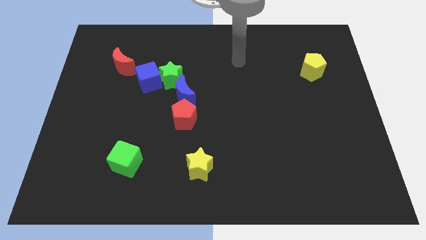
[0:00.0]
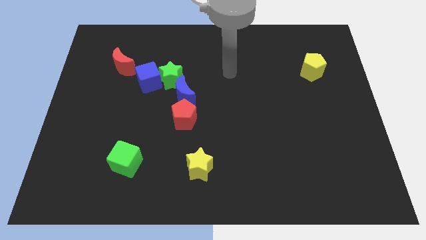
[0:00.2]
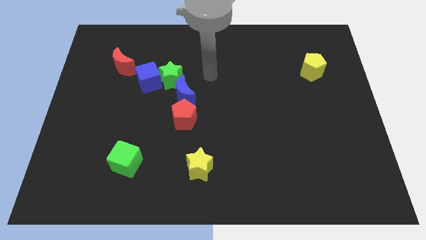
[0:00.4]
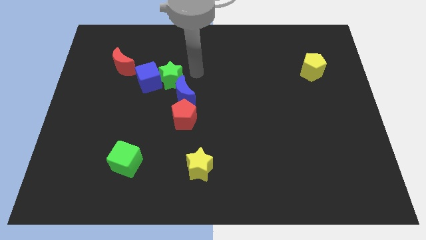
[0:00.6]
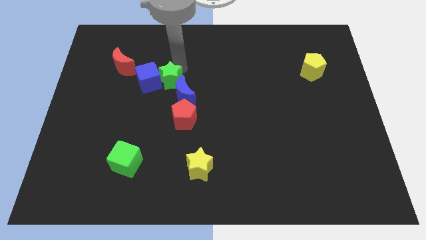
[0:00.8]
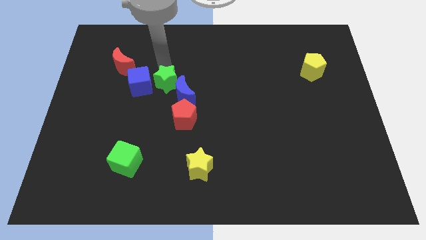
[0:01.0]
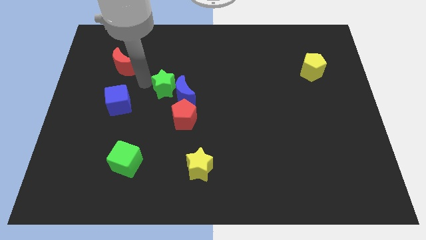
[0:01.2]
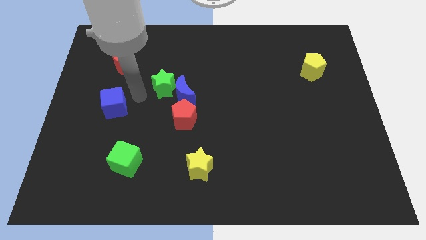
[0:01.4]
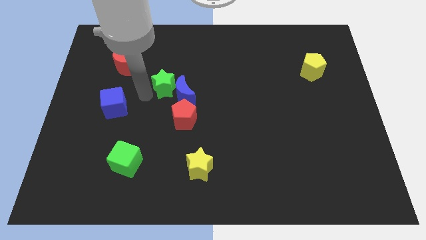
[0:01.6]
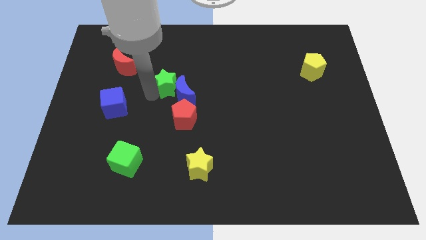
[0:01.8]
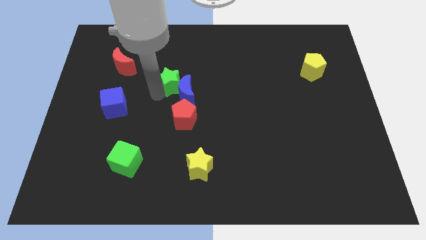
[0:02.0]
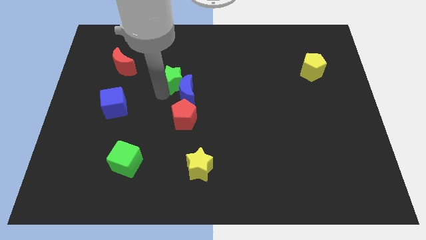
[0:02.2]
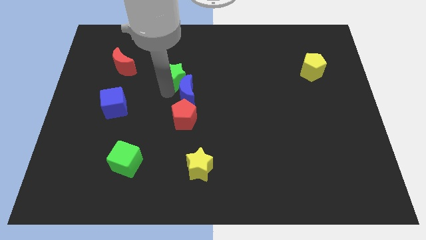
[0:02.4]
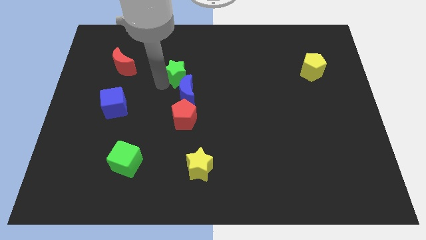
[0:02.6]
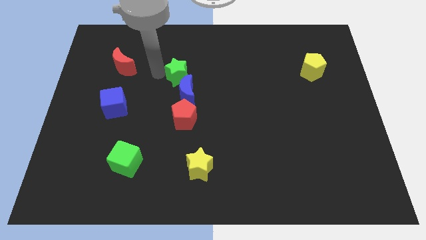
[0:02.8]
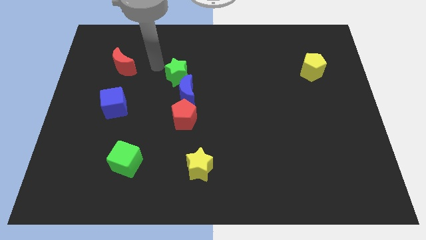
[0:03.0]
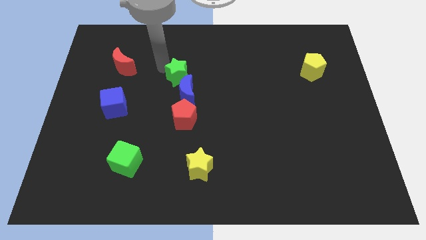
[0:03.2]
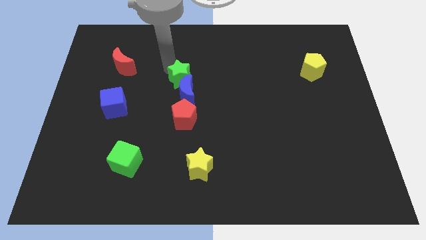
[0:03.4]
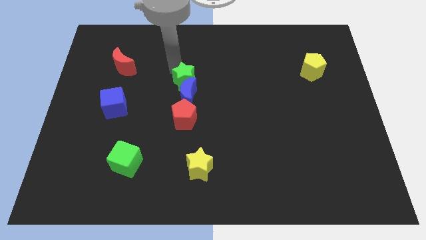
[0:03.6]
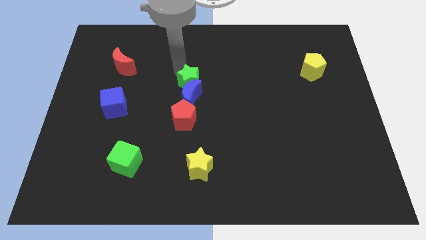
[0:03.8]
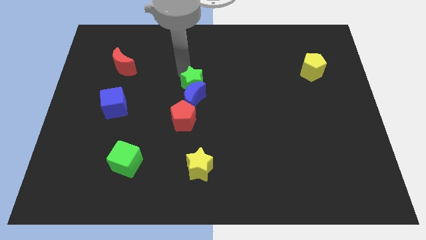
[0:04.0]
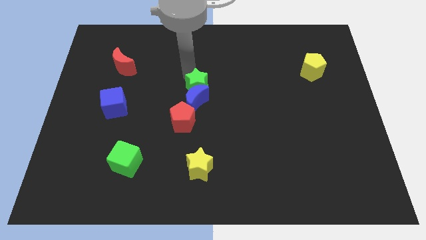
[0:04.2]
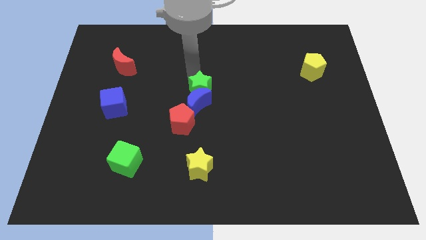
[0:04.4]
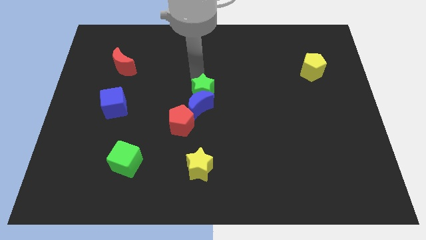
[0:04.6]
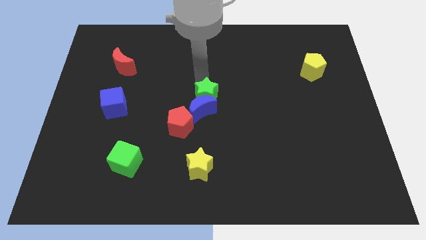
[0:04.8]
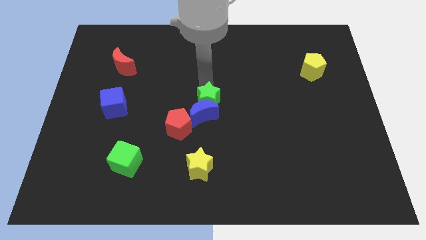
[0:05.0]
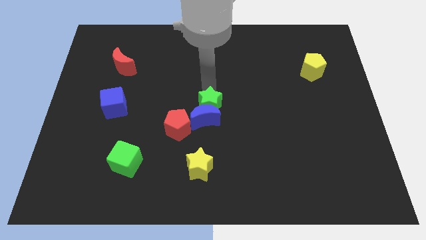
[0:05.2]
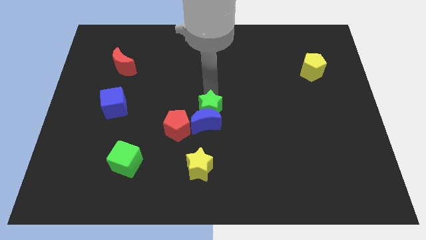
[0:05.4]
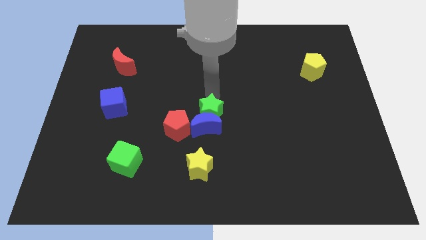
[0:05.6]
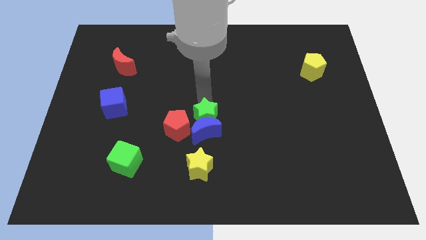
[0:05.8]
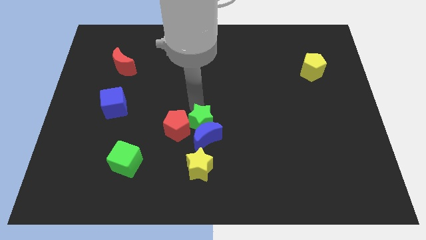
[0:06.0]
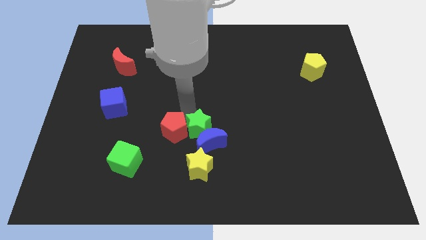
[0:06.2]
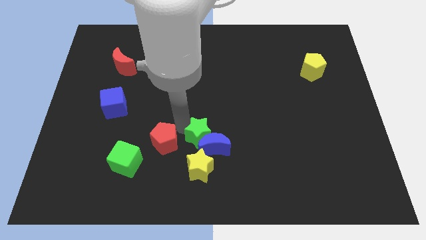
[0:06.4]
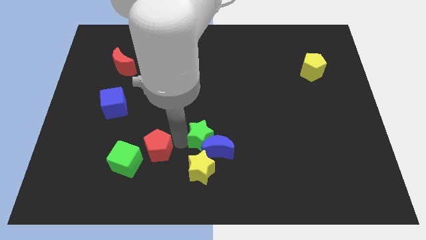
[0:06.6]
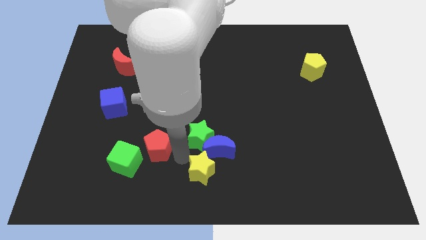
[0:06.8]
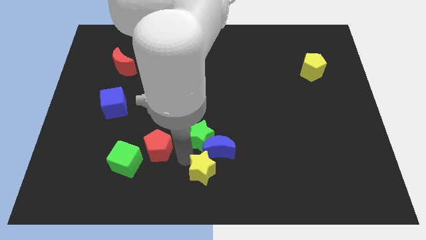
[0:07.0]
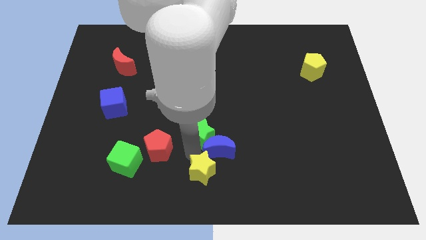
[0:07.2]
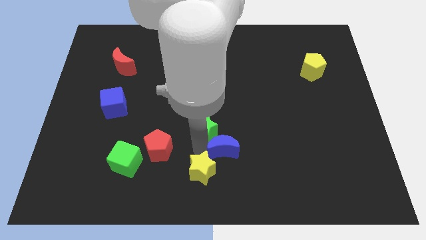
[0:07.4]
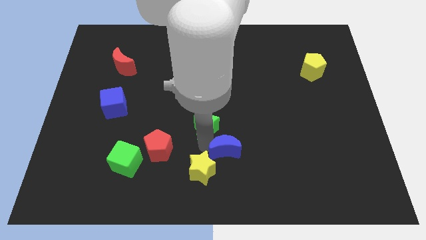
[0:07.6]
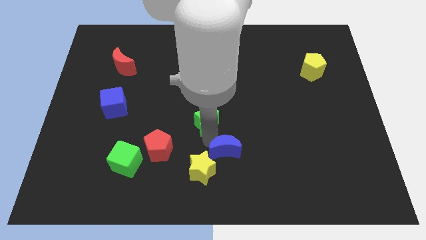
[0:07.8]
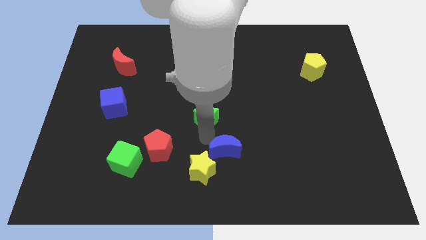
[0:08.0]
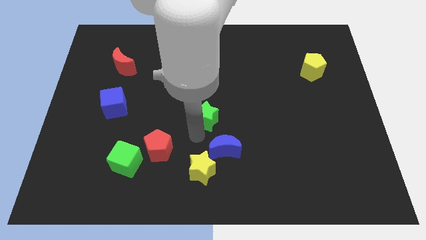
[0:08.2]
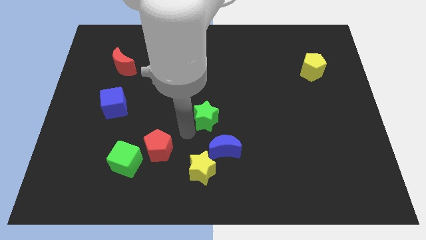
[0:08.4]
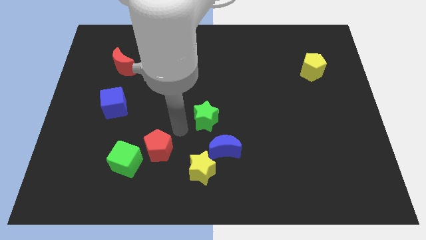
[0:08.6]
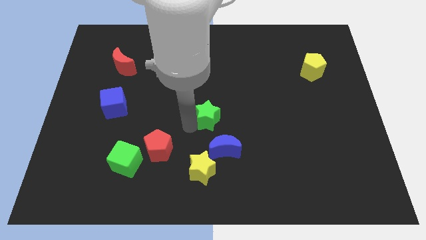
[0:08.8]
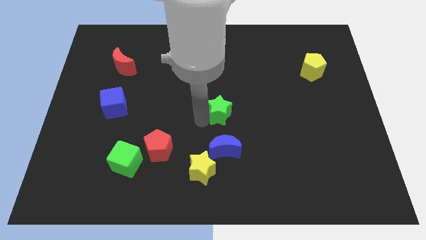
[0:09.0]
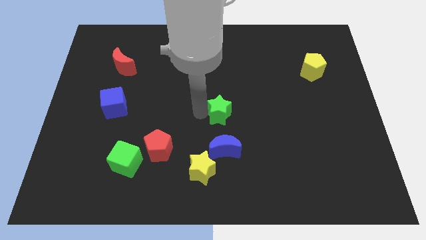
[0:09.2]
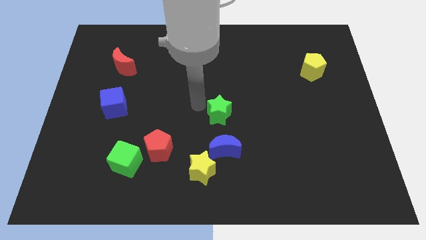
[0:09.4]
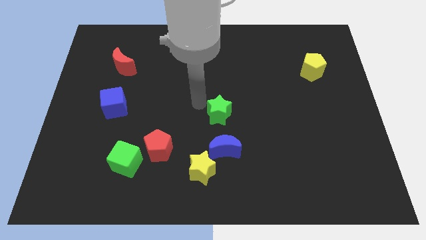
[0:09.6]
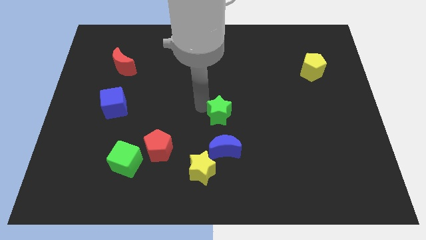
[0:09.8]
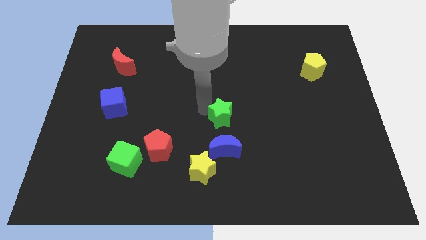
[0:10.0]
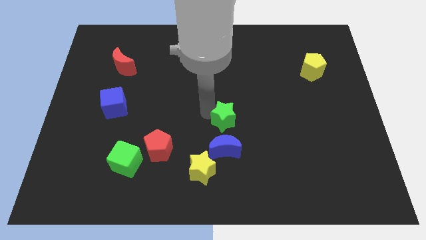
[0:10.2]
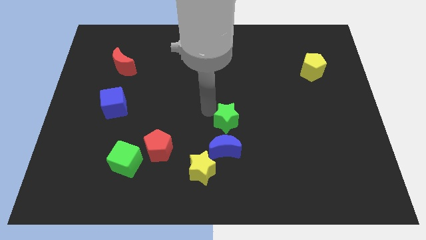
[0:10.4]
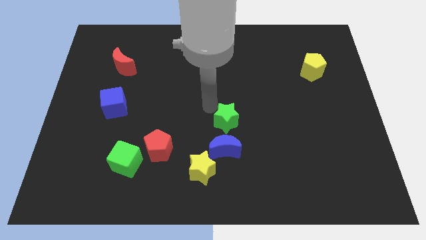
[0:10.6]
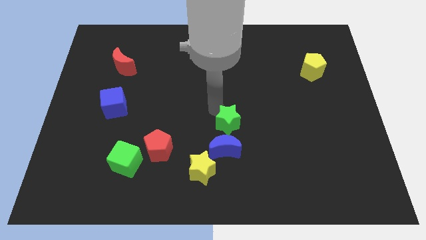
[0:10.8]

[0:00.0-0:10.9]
slide the green star diagonally down and right

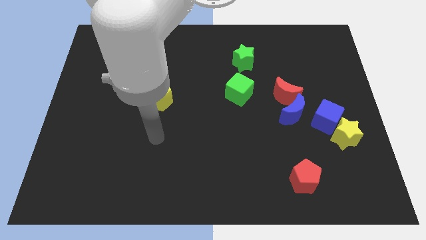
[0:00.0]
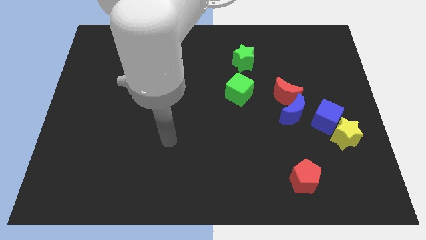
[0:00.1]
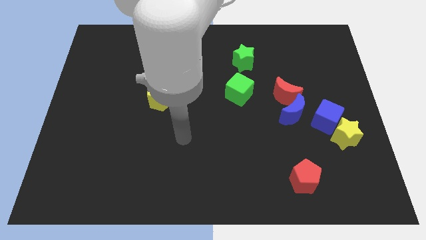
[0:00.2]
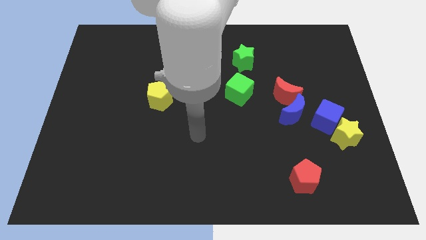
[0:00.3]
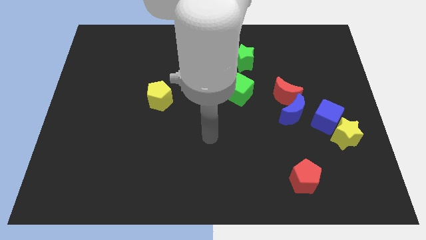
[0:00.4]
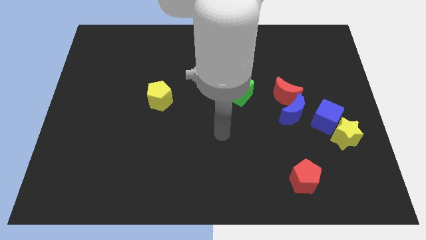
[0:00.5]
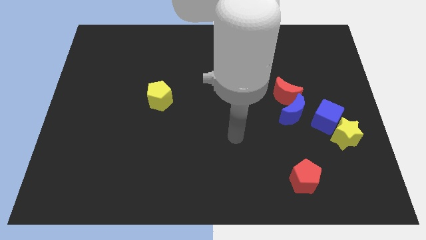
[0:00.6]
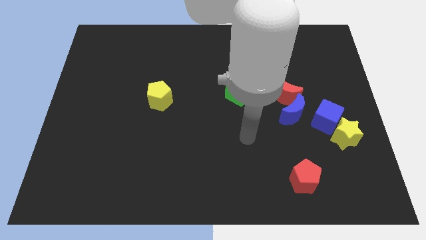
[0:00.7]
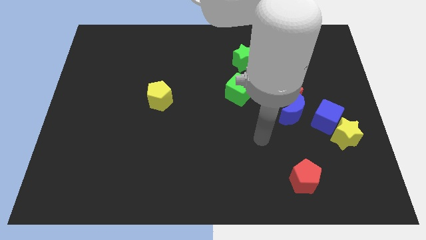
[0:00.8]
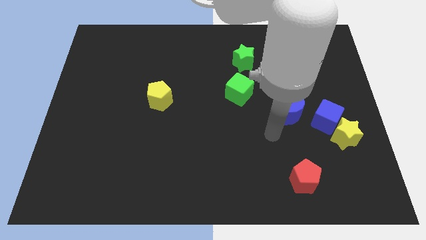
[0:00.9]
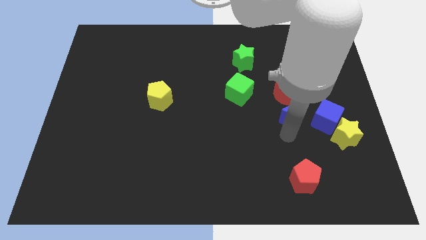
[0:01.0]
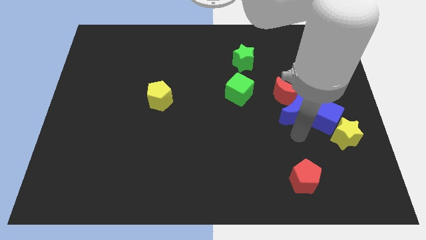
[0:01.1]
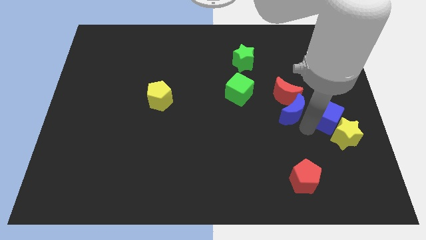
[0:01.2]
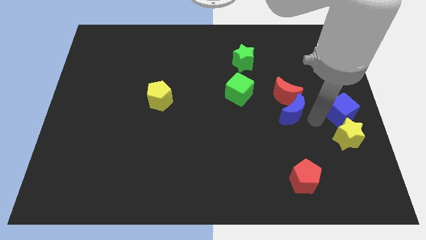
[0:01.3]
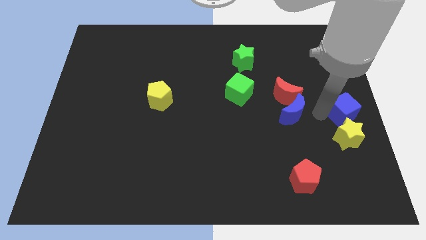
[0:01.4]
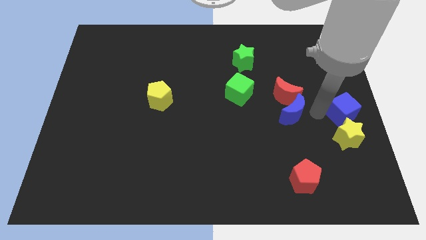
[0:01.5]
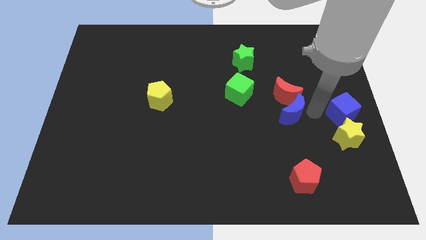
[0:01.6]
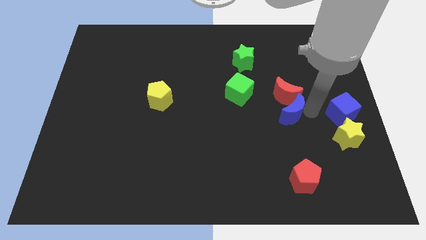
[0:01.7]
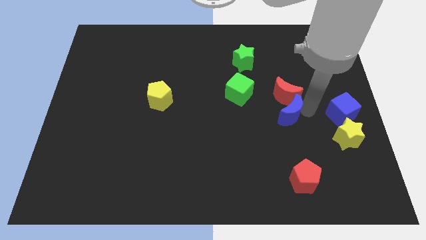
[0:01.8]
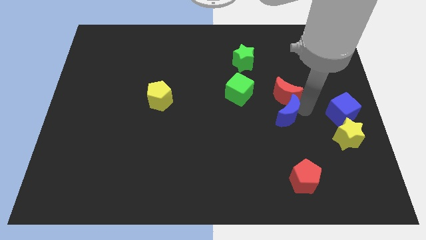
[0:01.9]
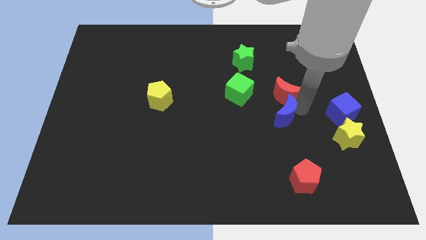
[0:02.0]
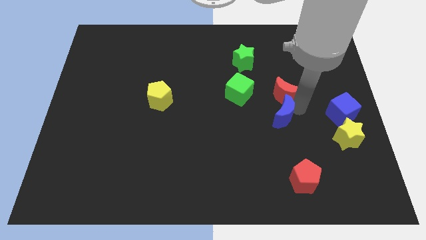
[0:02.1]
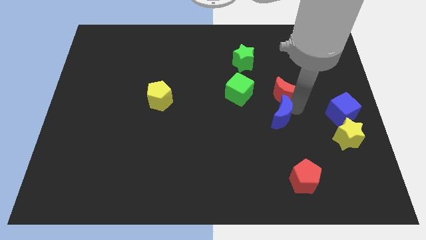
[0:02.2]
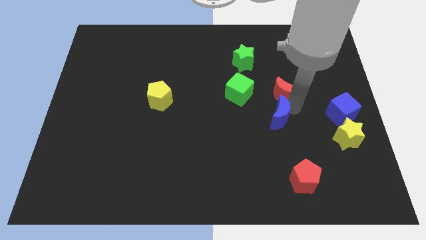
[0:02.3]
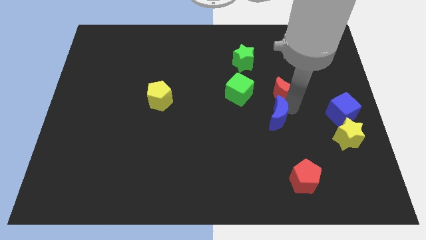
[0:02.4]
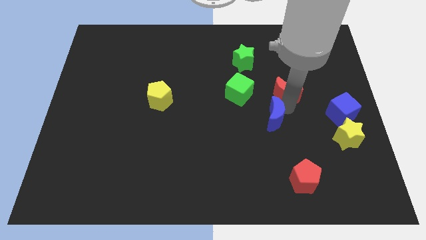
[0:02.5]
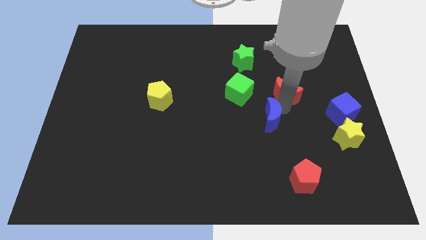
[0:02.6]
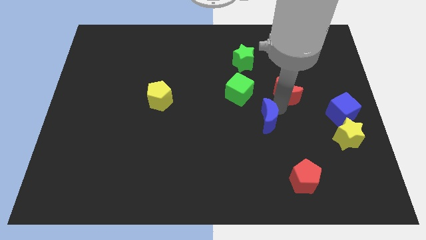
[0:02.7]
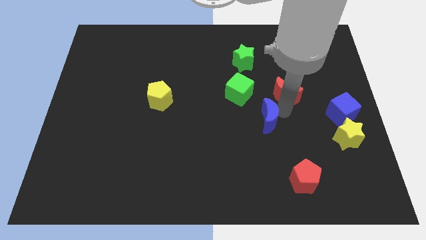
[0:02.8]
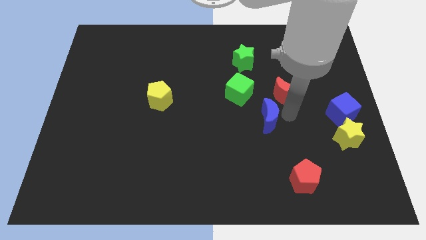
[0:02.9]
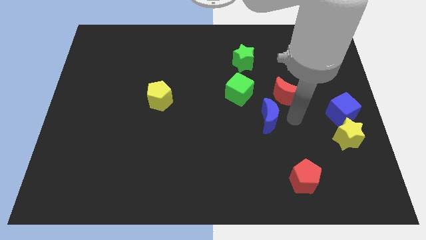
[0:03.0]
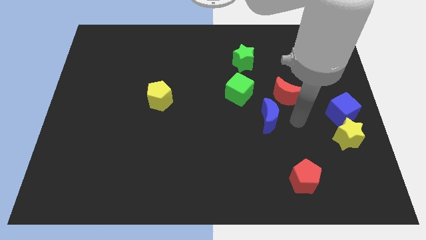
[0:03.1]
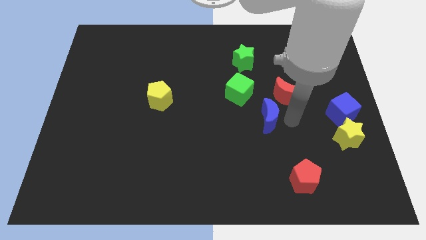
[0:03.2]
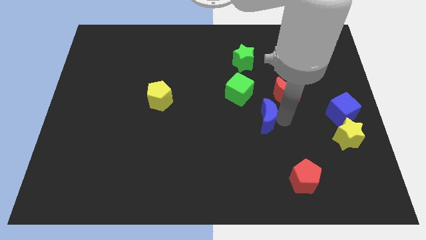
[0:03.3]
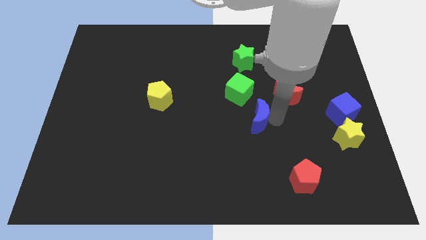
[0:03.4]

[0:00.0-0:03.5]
slightly push the blue moon left
